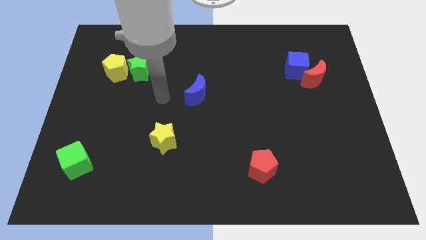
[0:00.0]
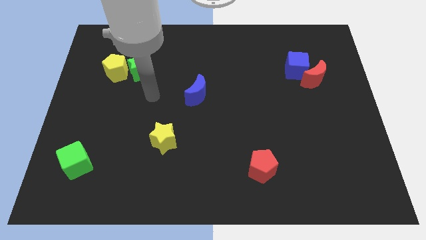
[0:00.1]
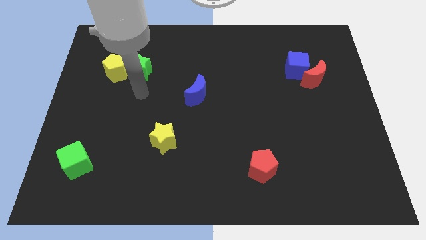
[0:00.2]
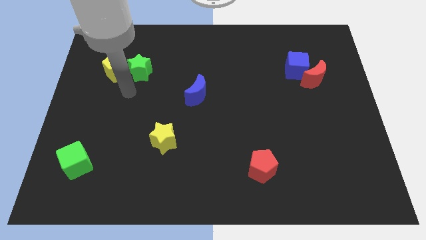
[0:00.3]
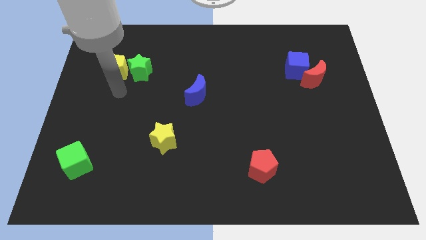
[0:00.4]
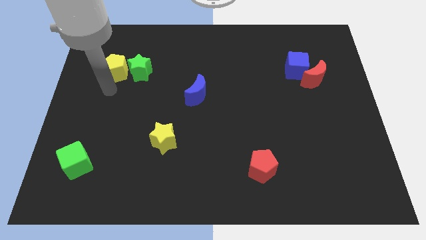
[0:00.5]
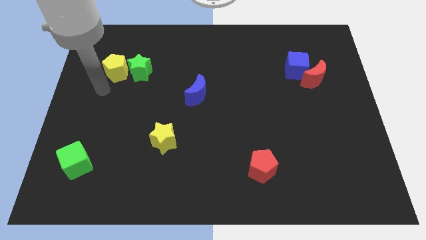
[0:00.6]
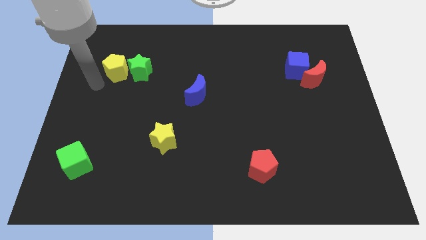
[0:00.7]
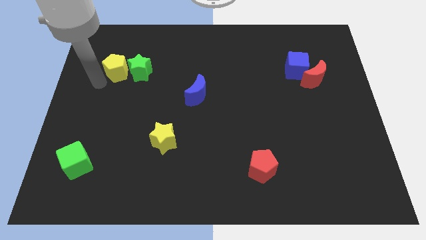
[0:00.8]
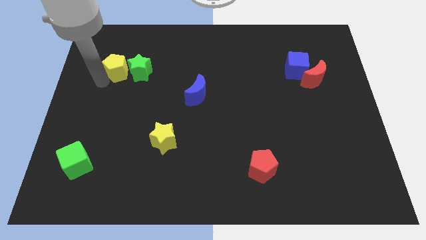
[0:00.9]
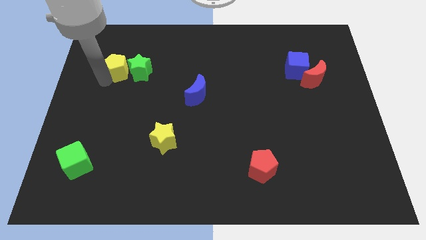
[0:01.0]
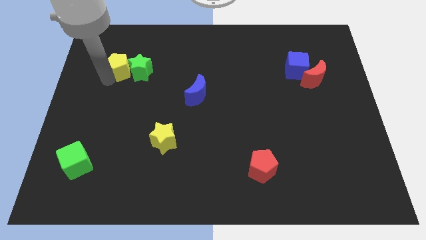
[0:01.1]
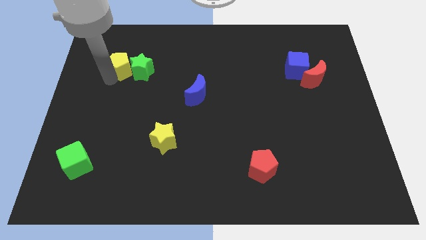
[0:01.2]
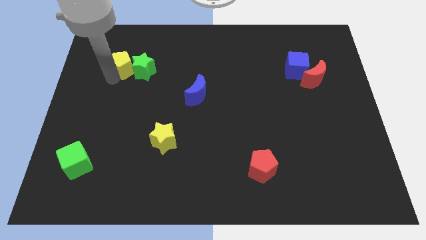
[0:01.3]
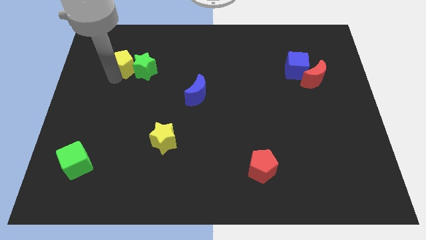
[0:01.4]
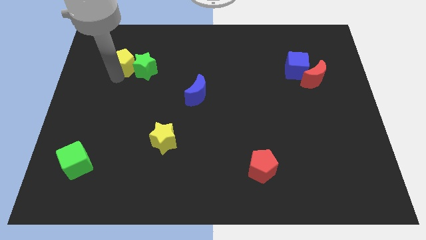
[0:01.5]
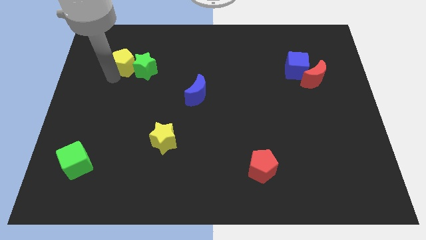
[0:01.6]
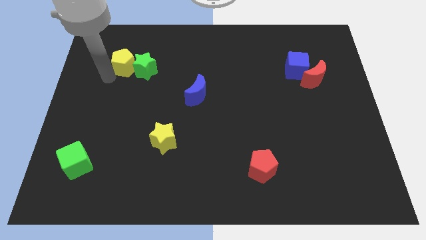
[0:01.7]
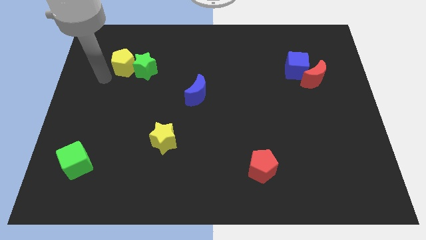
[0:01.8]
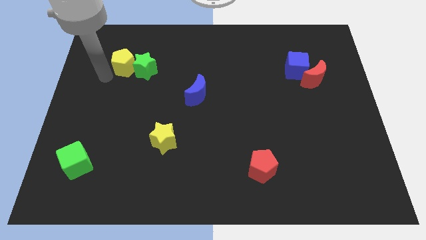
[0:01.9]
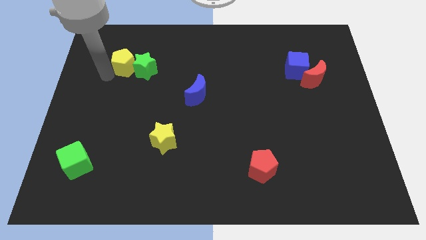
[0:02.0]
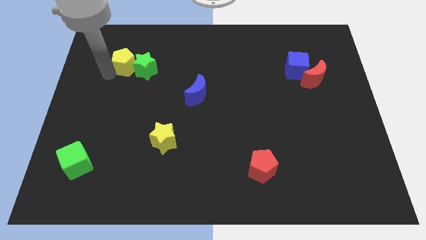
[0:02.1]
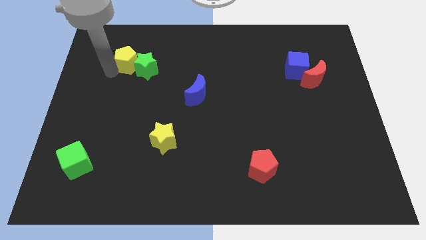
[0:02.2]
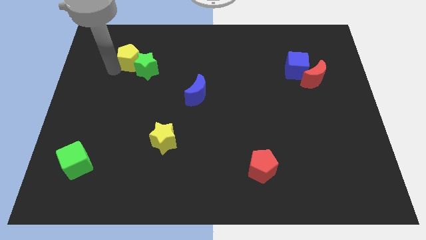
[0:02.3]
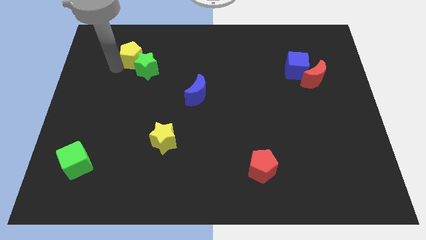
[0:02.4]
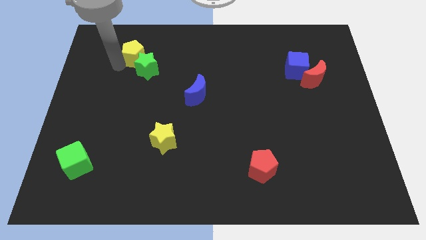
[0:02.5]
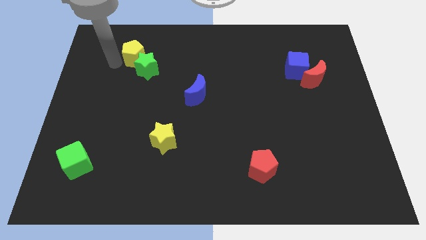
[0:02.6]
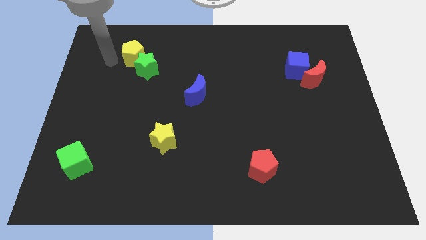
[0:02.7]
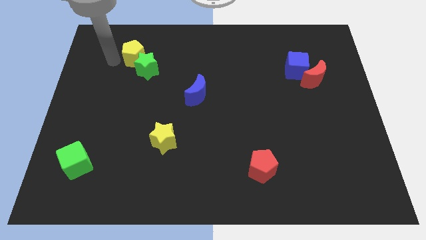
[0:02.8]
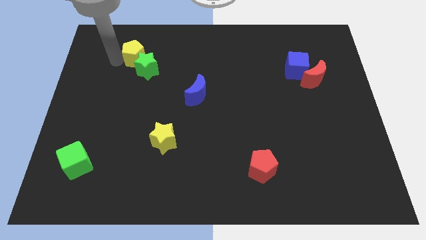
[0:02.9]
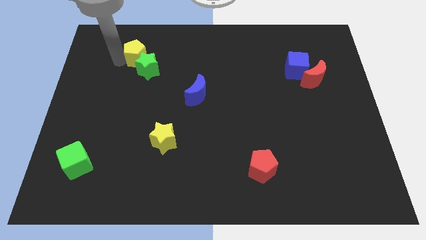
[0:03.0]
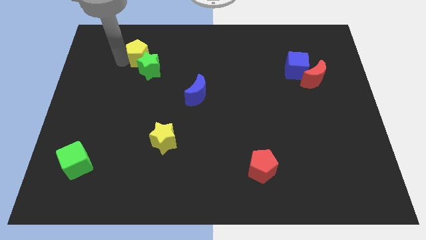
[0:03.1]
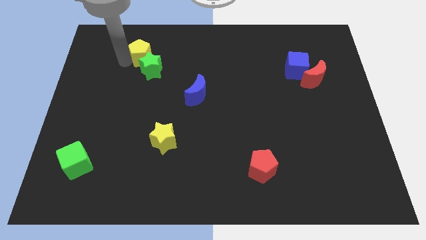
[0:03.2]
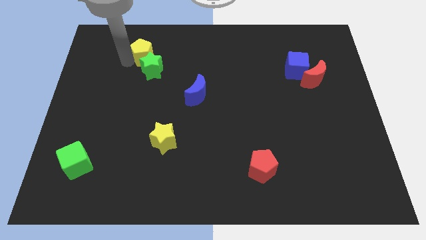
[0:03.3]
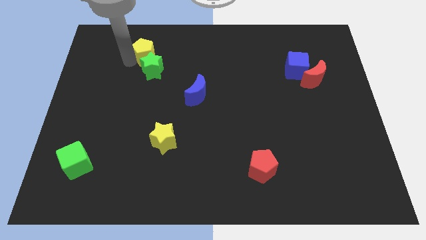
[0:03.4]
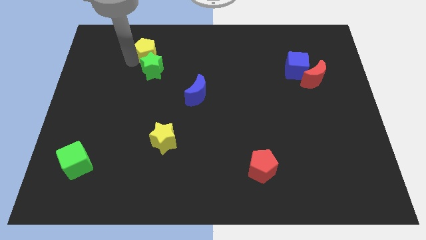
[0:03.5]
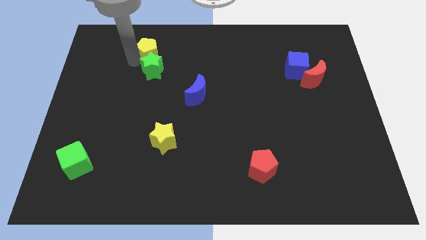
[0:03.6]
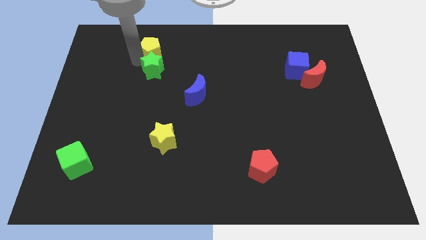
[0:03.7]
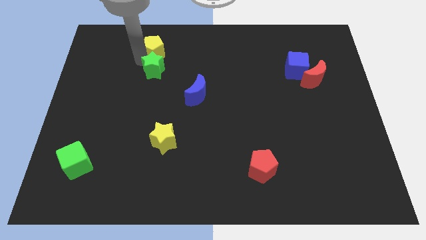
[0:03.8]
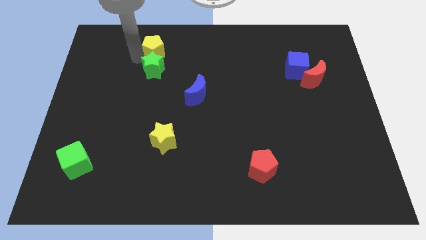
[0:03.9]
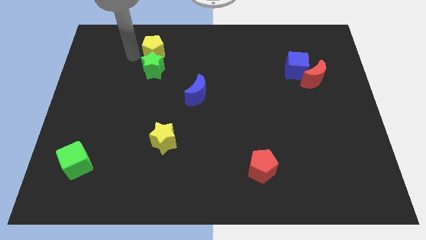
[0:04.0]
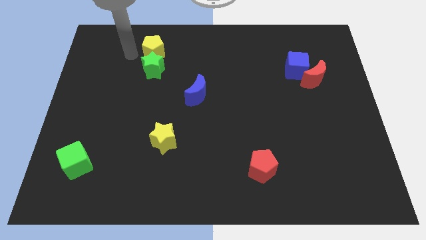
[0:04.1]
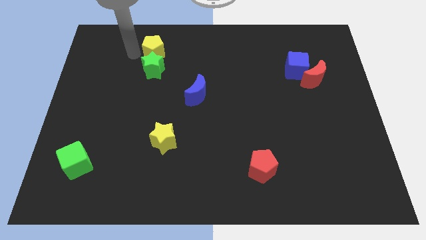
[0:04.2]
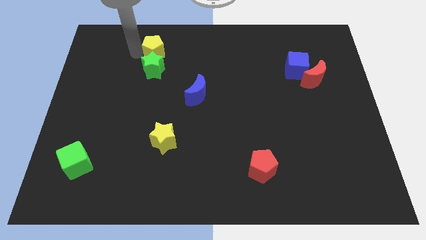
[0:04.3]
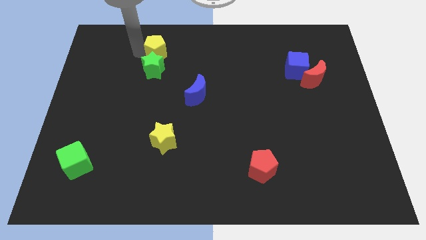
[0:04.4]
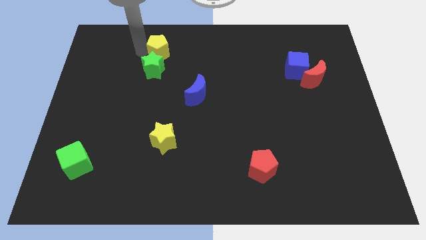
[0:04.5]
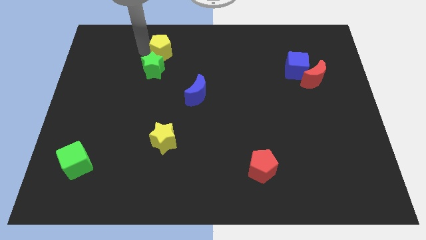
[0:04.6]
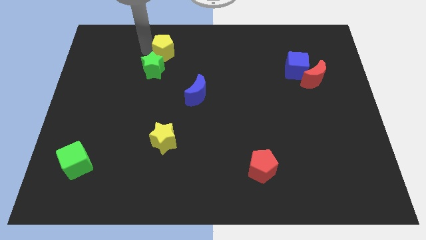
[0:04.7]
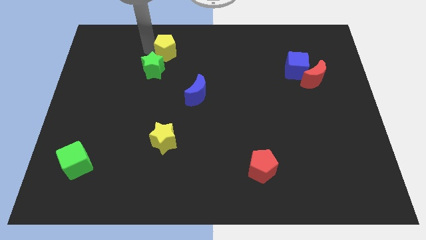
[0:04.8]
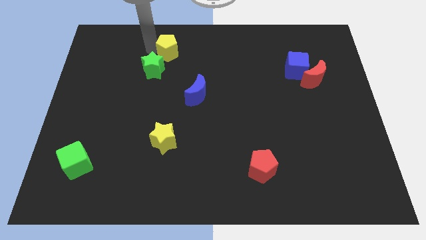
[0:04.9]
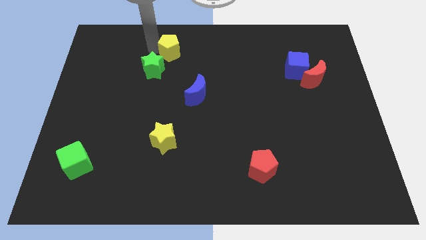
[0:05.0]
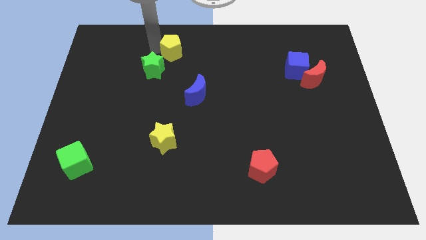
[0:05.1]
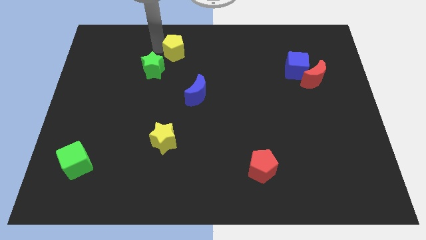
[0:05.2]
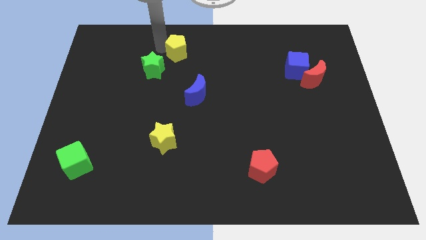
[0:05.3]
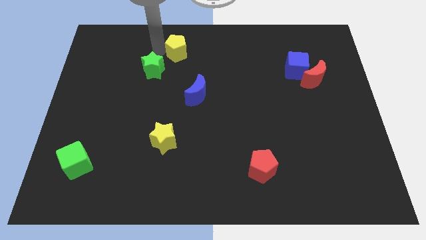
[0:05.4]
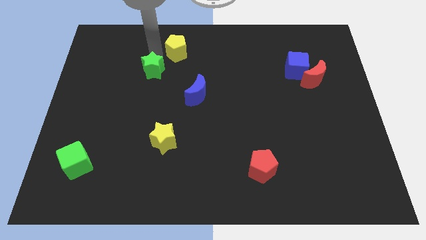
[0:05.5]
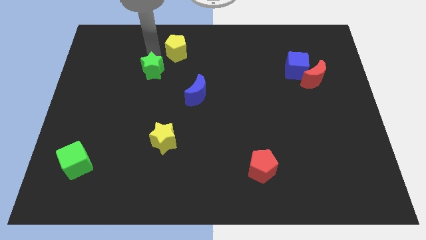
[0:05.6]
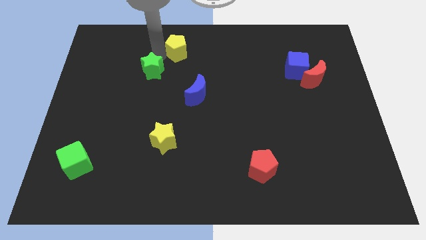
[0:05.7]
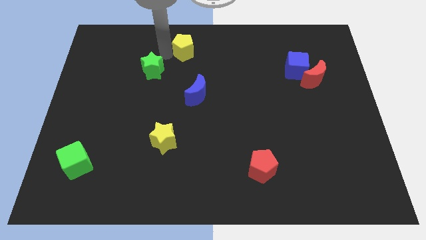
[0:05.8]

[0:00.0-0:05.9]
put the yellow pentagon to the top

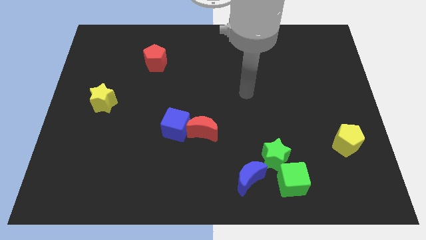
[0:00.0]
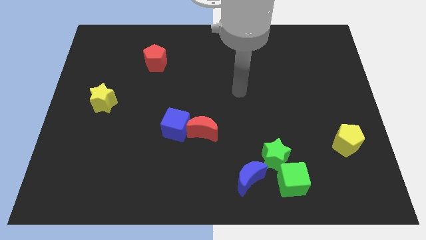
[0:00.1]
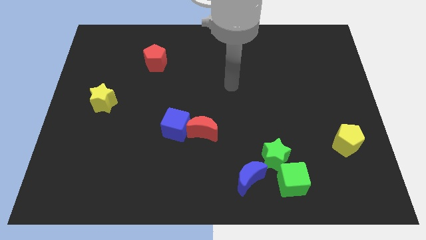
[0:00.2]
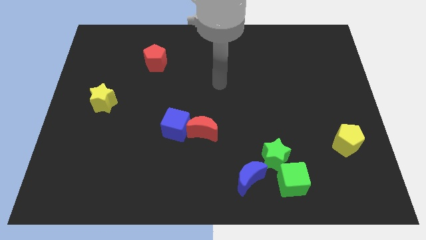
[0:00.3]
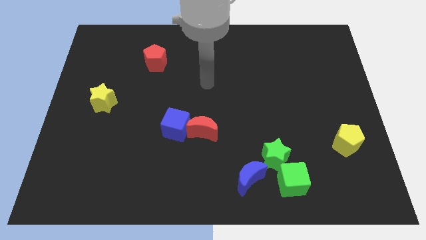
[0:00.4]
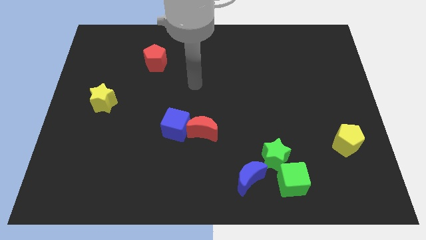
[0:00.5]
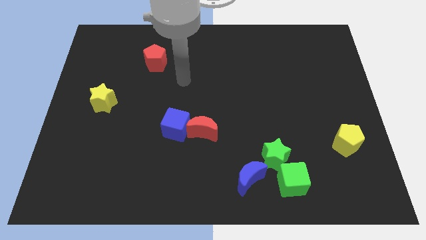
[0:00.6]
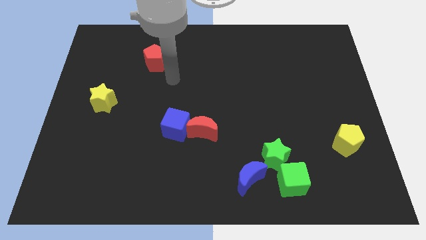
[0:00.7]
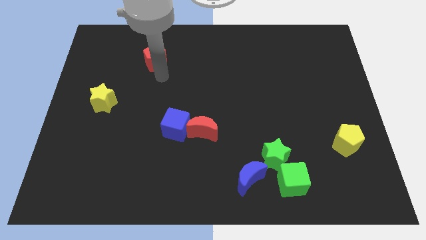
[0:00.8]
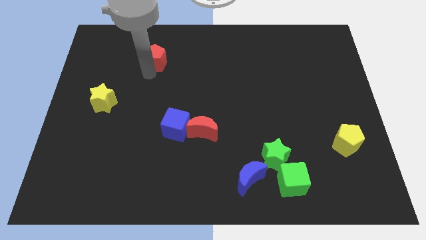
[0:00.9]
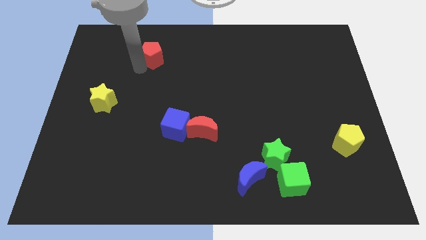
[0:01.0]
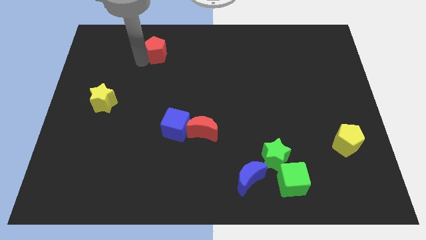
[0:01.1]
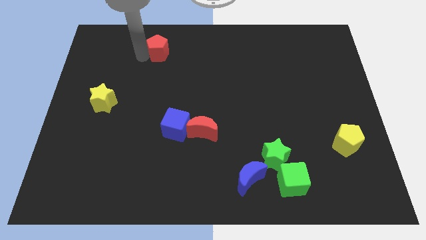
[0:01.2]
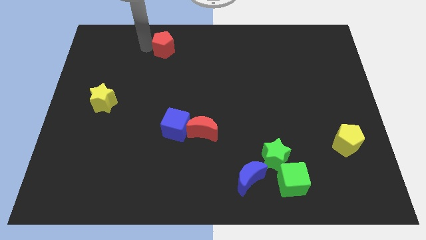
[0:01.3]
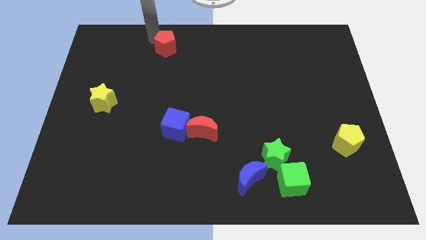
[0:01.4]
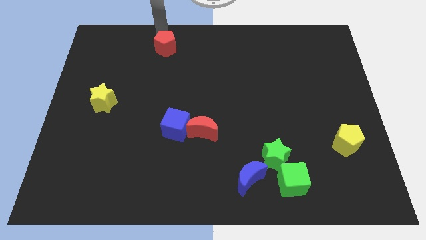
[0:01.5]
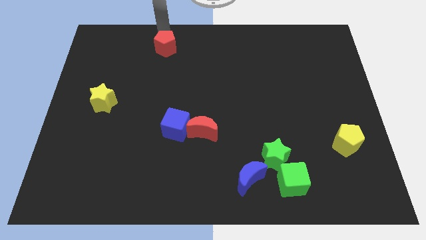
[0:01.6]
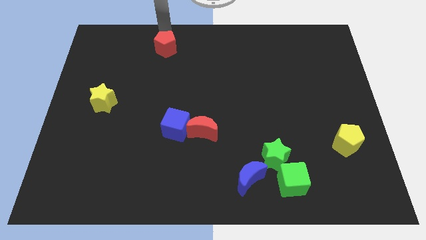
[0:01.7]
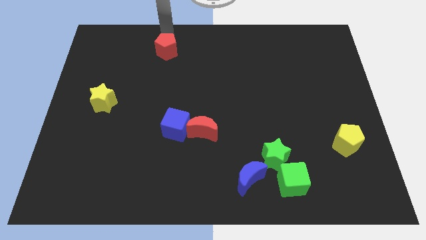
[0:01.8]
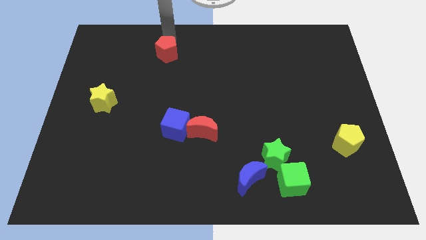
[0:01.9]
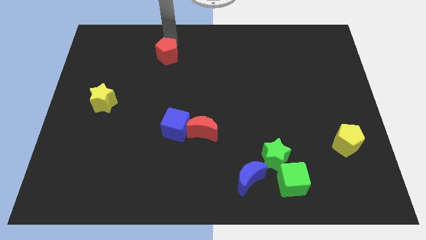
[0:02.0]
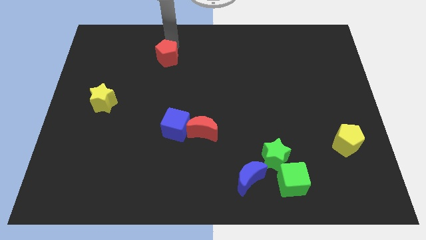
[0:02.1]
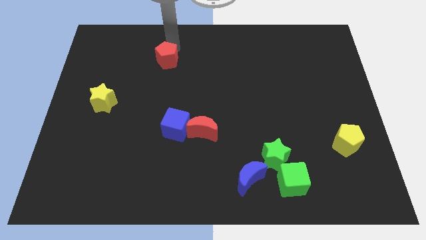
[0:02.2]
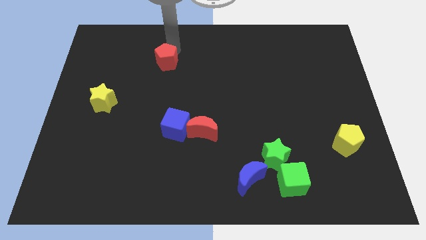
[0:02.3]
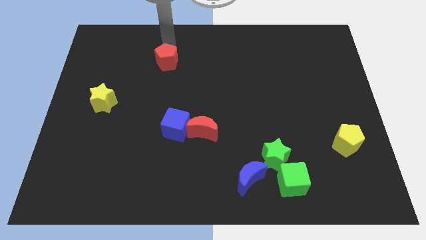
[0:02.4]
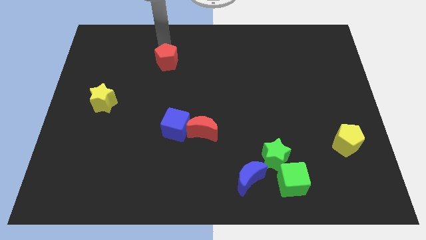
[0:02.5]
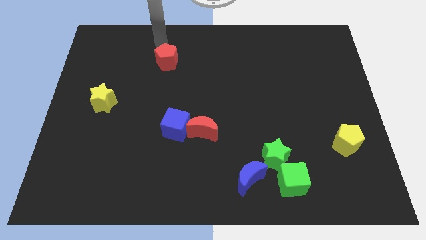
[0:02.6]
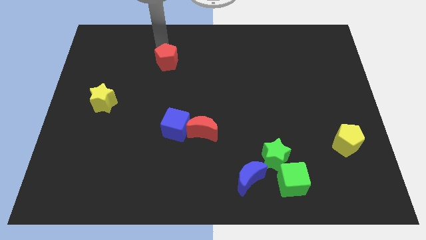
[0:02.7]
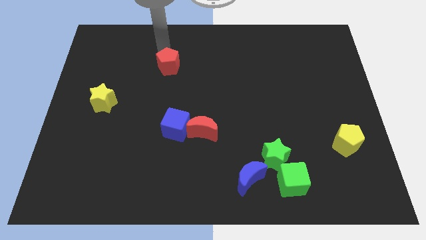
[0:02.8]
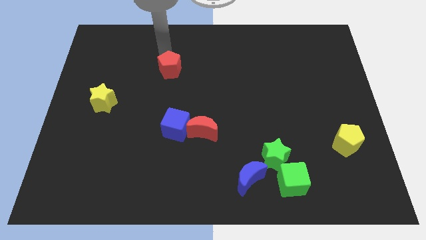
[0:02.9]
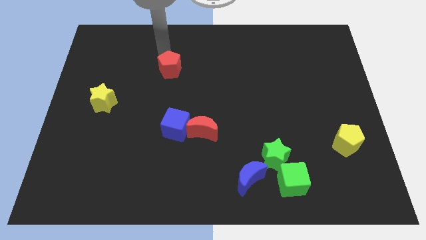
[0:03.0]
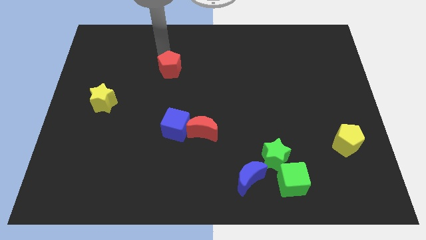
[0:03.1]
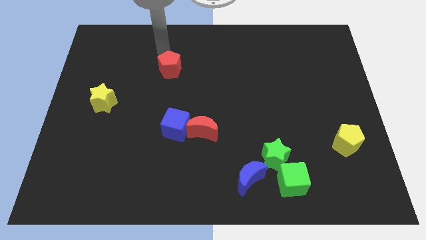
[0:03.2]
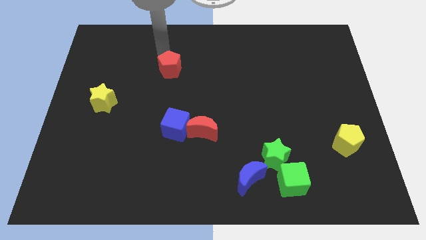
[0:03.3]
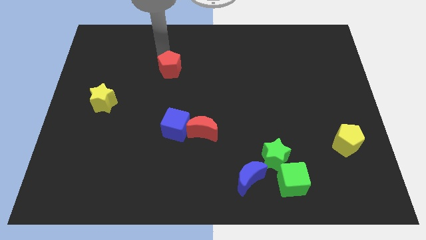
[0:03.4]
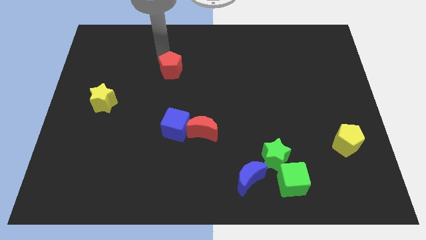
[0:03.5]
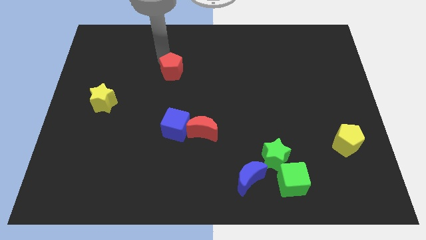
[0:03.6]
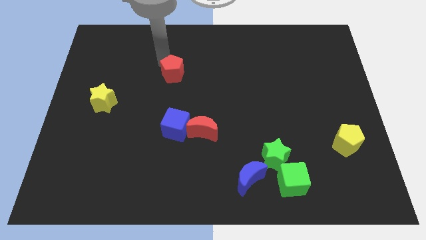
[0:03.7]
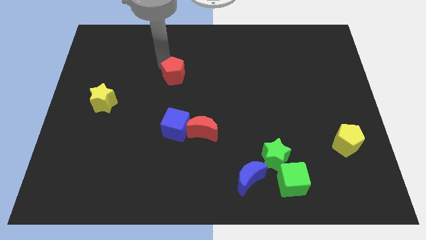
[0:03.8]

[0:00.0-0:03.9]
move the red pentagon to the middle of the board
